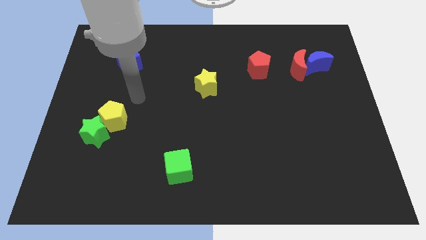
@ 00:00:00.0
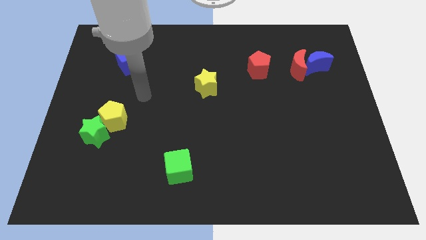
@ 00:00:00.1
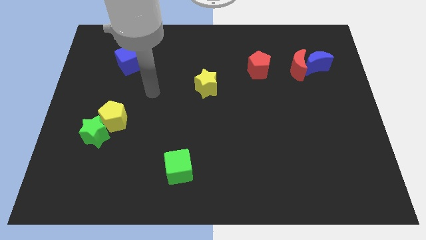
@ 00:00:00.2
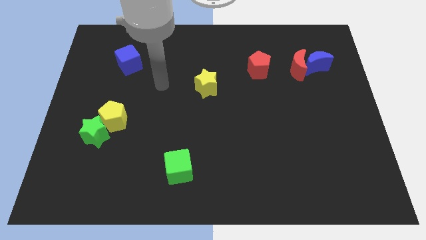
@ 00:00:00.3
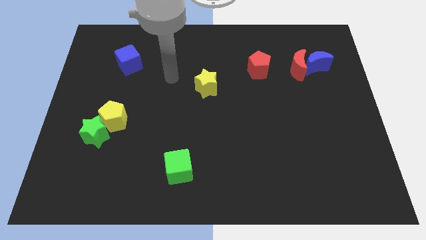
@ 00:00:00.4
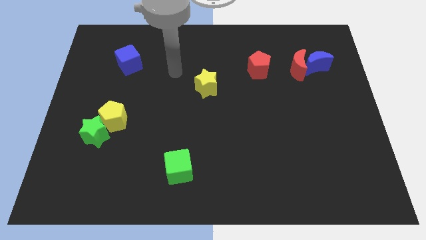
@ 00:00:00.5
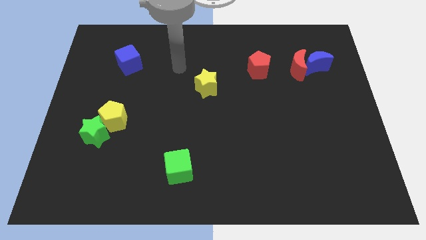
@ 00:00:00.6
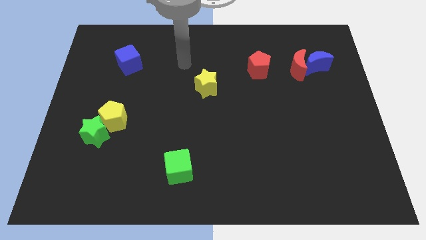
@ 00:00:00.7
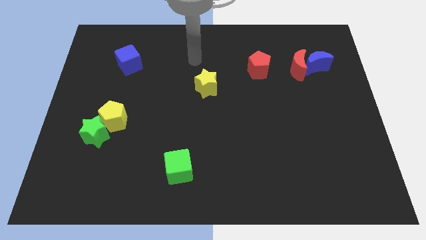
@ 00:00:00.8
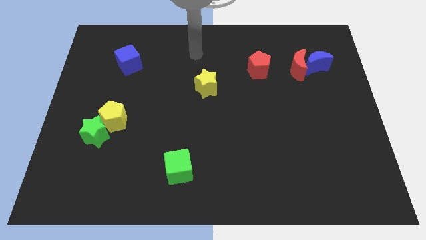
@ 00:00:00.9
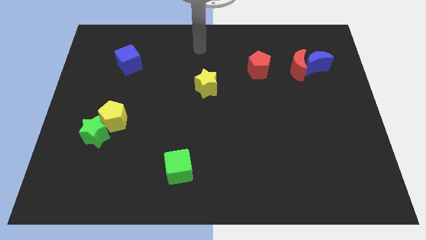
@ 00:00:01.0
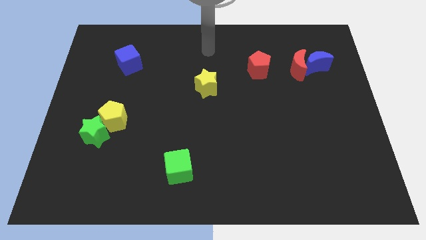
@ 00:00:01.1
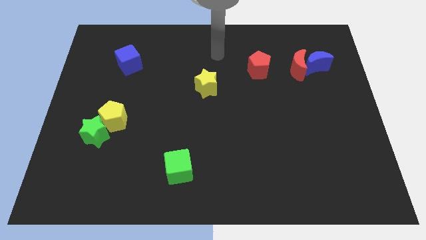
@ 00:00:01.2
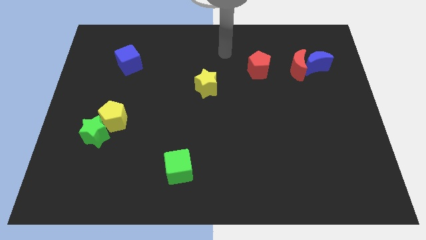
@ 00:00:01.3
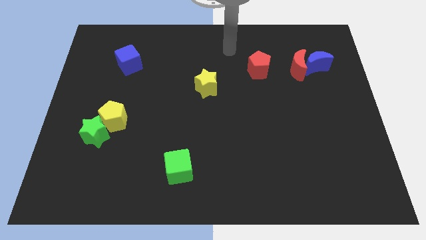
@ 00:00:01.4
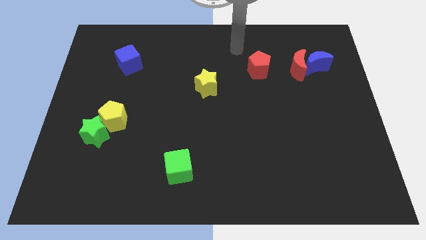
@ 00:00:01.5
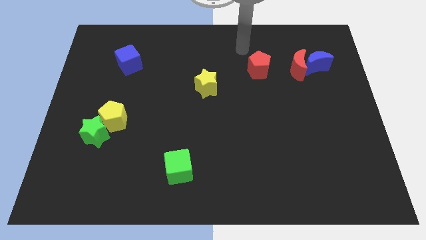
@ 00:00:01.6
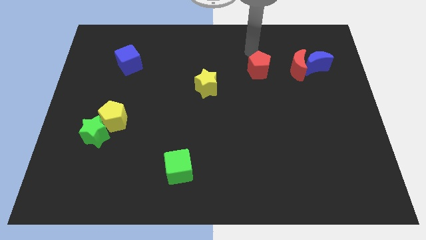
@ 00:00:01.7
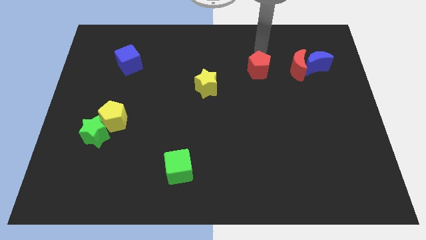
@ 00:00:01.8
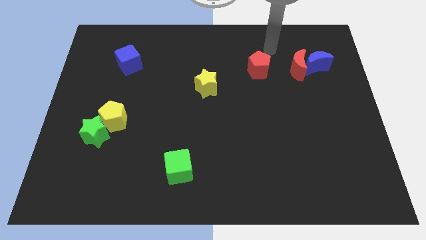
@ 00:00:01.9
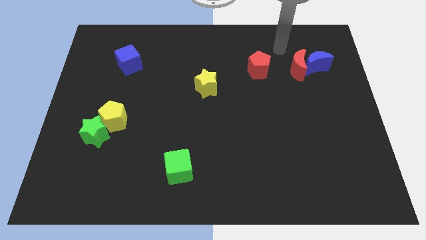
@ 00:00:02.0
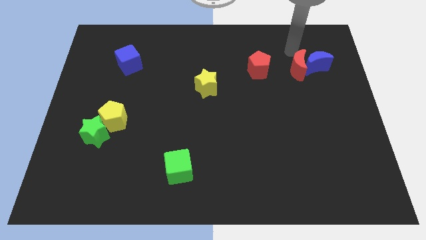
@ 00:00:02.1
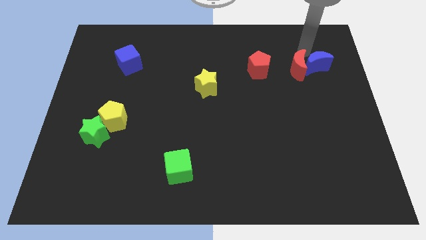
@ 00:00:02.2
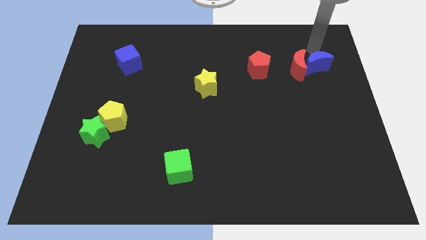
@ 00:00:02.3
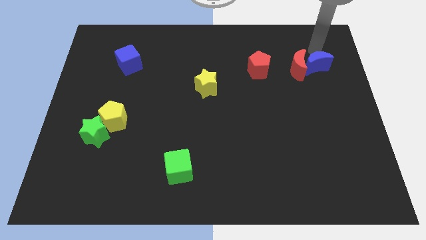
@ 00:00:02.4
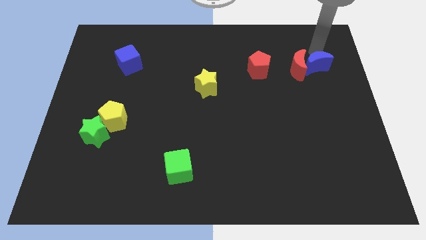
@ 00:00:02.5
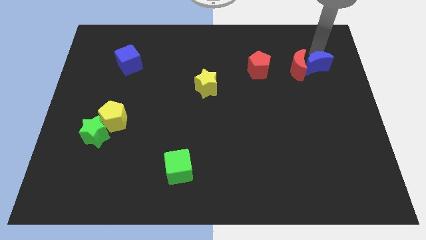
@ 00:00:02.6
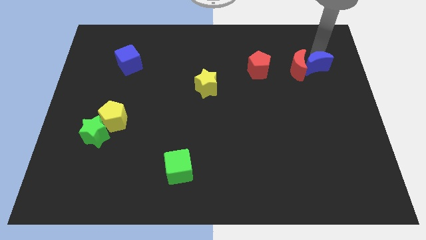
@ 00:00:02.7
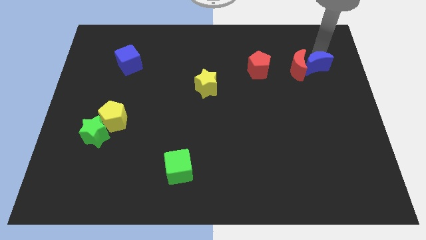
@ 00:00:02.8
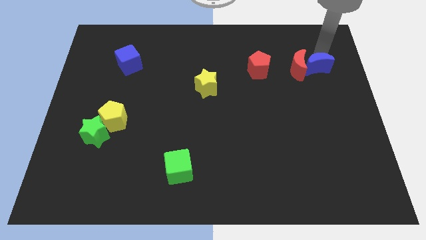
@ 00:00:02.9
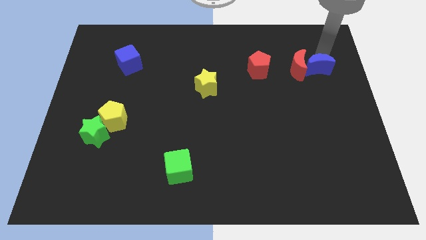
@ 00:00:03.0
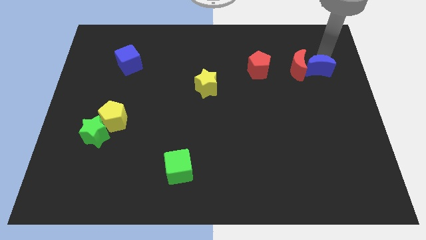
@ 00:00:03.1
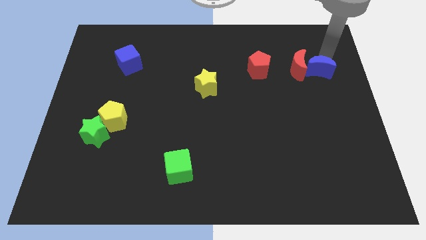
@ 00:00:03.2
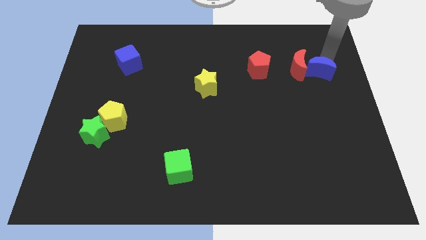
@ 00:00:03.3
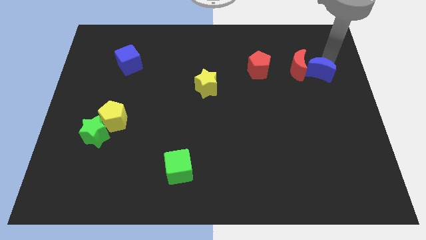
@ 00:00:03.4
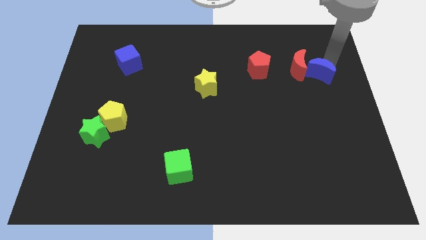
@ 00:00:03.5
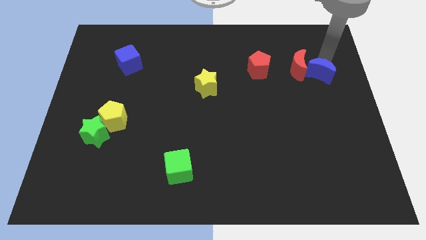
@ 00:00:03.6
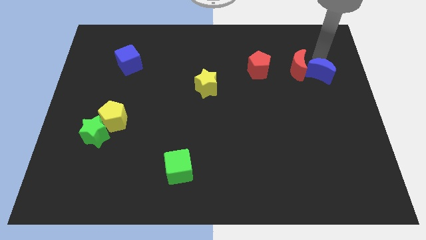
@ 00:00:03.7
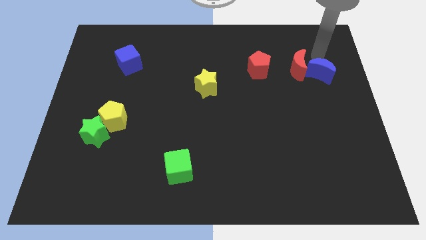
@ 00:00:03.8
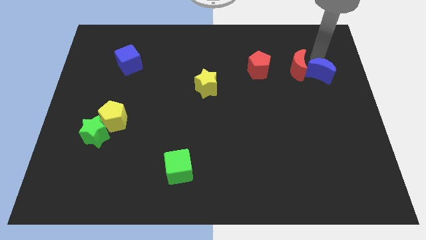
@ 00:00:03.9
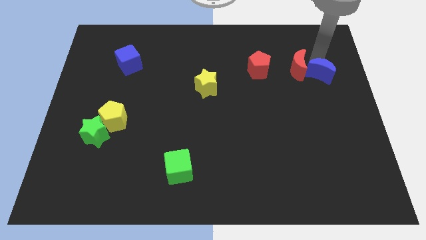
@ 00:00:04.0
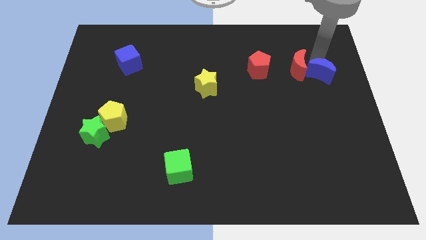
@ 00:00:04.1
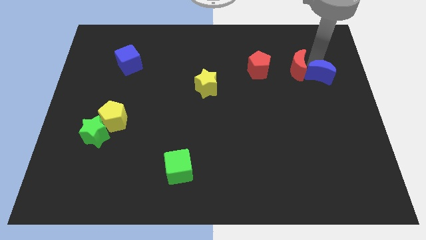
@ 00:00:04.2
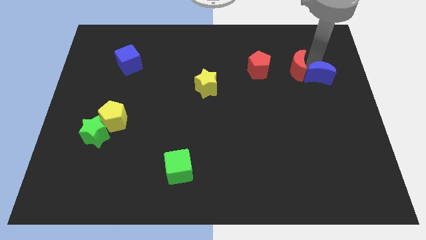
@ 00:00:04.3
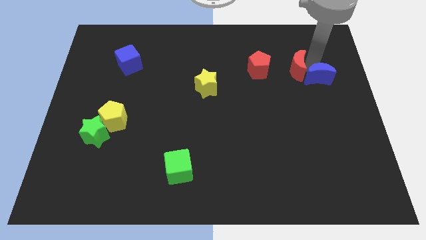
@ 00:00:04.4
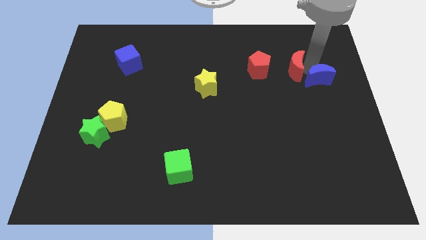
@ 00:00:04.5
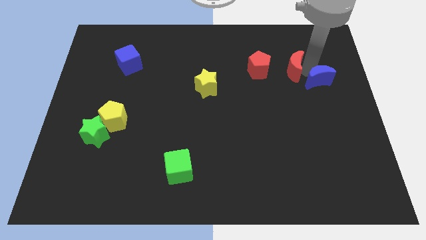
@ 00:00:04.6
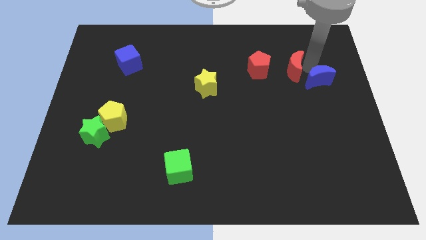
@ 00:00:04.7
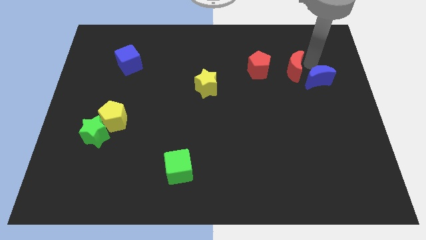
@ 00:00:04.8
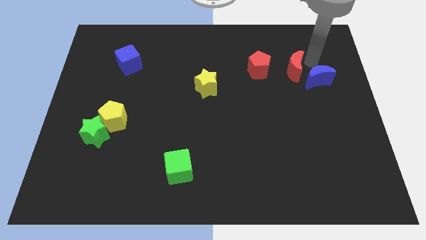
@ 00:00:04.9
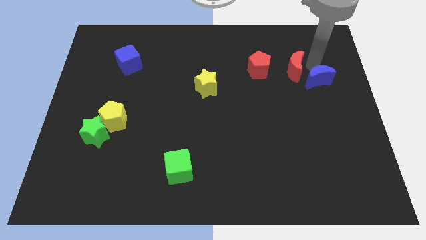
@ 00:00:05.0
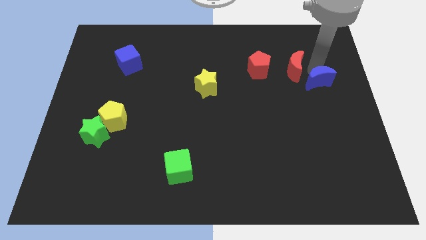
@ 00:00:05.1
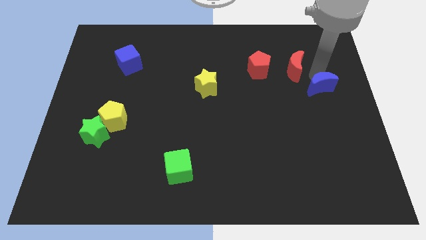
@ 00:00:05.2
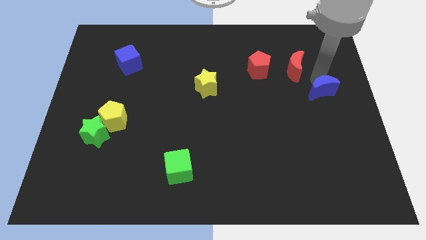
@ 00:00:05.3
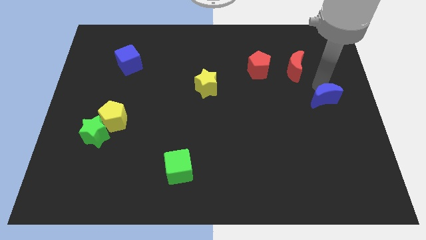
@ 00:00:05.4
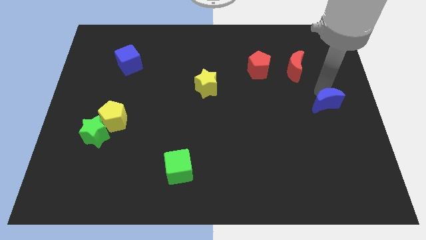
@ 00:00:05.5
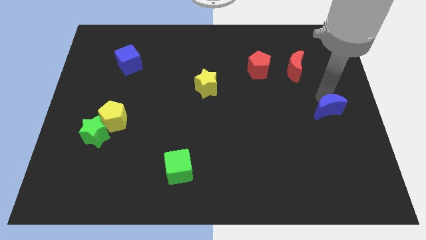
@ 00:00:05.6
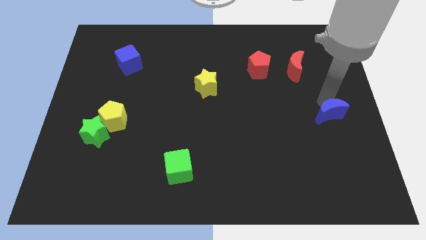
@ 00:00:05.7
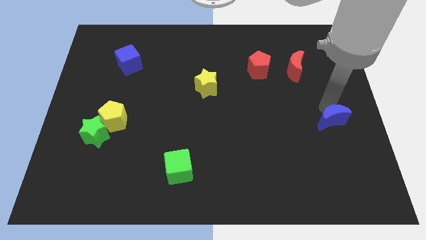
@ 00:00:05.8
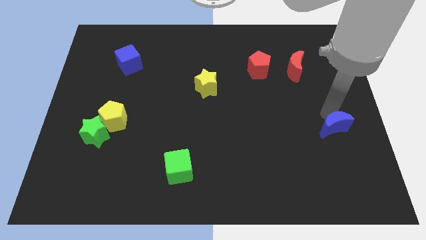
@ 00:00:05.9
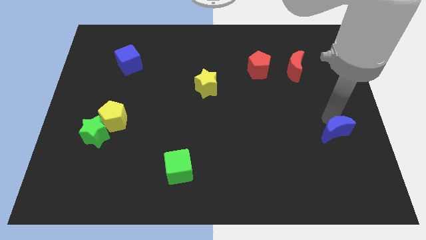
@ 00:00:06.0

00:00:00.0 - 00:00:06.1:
slide the blue moon down

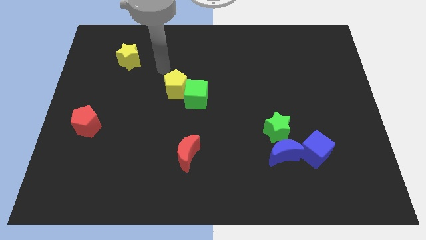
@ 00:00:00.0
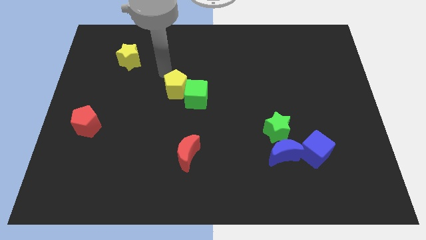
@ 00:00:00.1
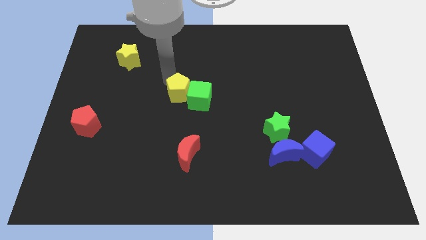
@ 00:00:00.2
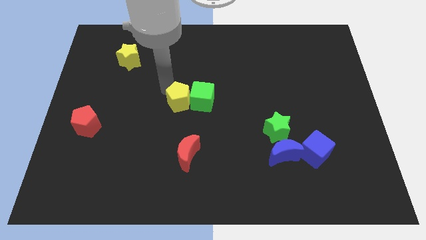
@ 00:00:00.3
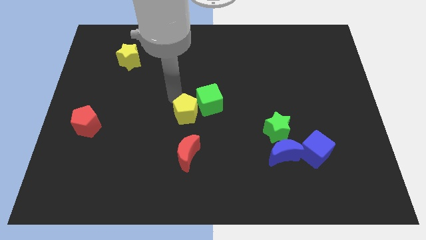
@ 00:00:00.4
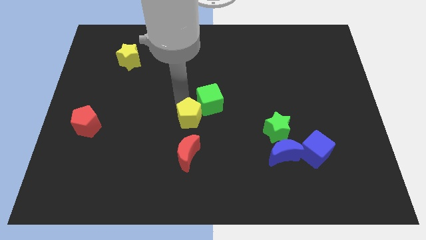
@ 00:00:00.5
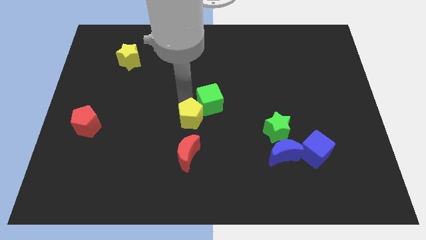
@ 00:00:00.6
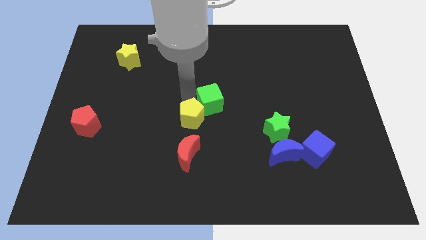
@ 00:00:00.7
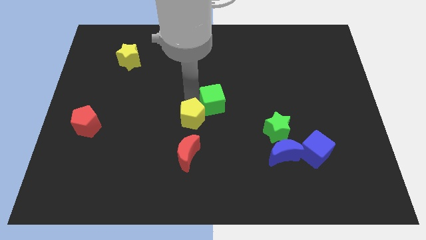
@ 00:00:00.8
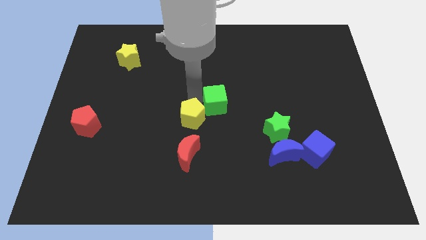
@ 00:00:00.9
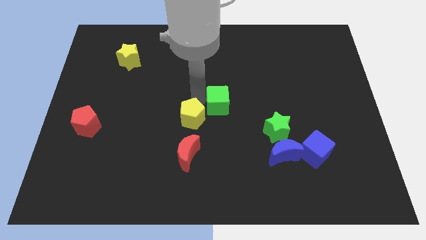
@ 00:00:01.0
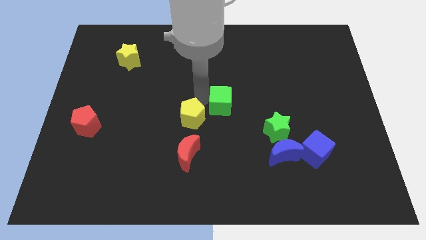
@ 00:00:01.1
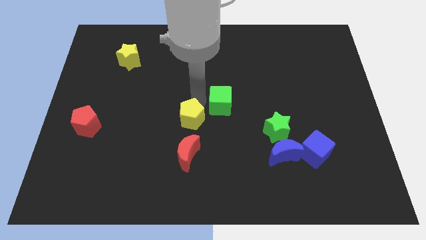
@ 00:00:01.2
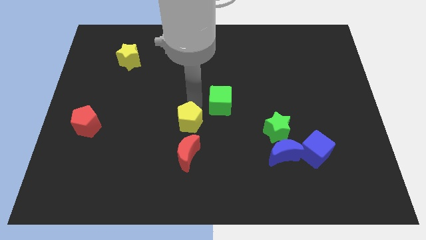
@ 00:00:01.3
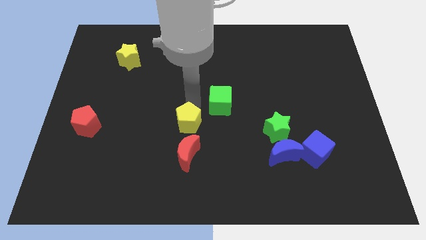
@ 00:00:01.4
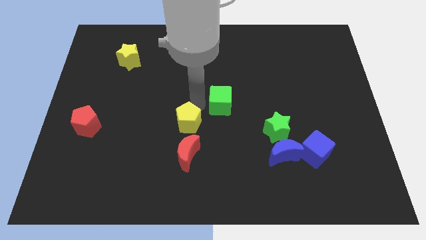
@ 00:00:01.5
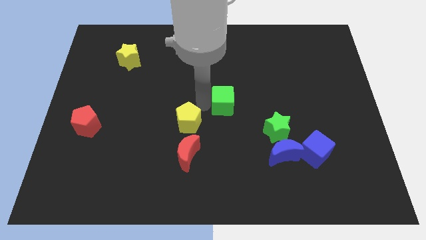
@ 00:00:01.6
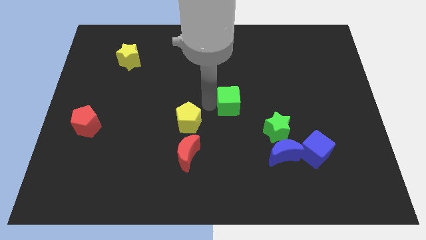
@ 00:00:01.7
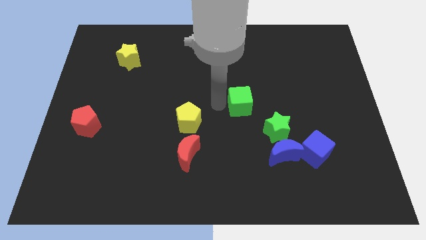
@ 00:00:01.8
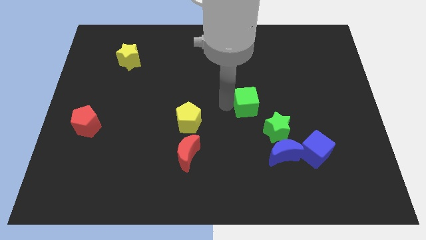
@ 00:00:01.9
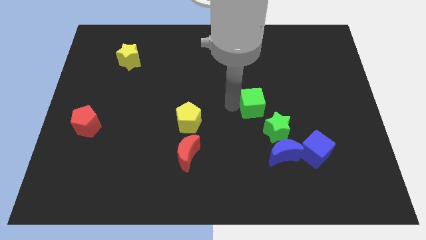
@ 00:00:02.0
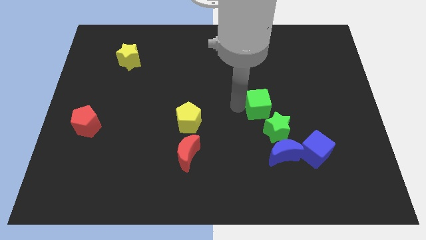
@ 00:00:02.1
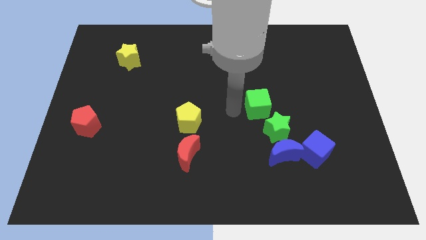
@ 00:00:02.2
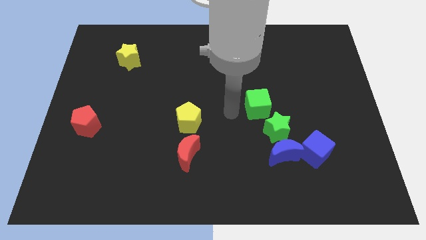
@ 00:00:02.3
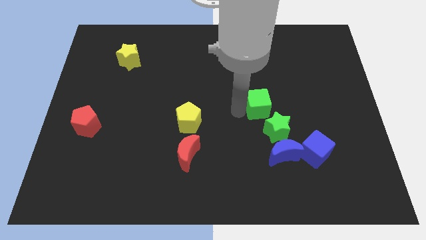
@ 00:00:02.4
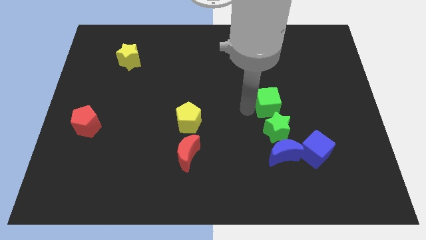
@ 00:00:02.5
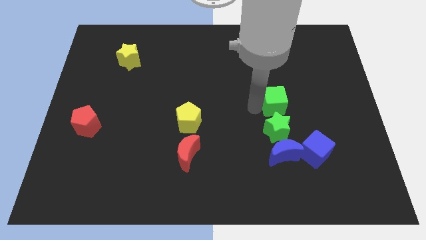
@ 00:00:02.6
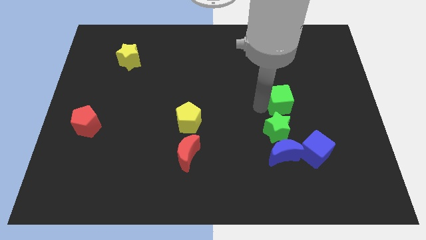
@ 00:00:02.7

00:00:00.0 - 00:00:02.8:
move the green cube right
